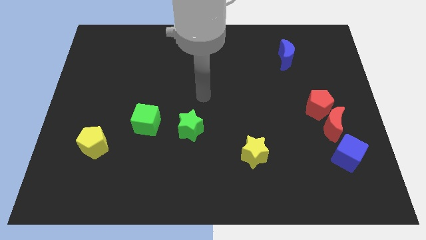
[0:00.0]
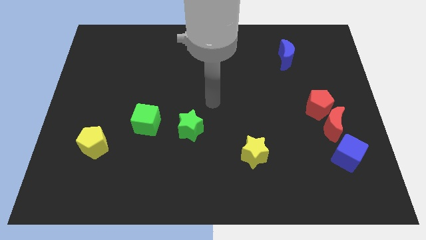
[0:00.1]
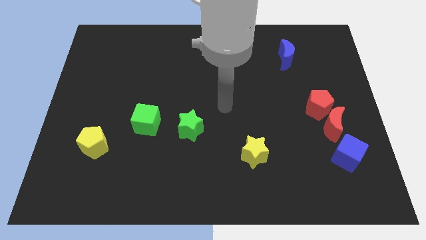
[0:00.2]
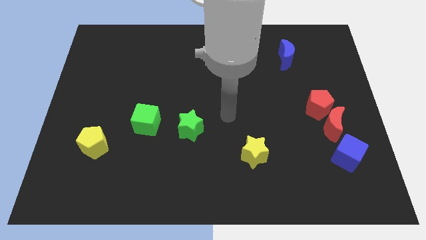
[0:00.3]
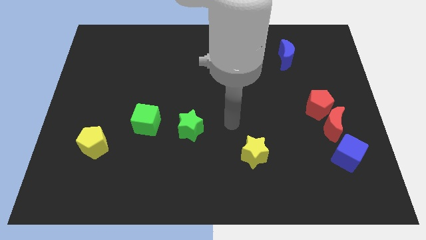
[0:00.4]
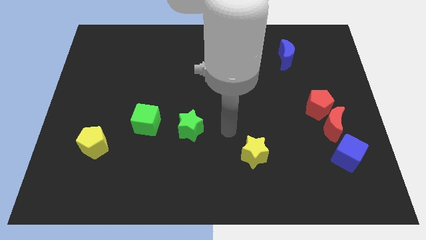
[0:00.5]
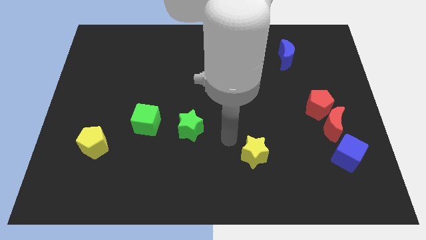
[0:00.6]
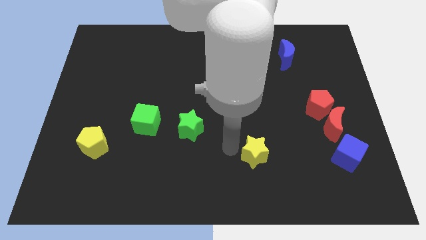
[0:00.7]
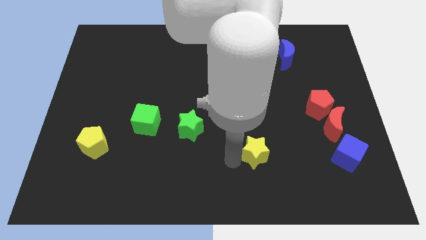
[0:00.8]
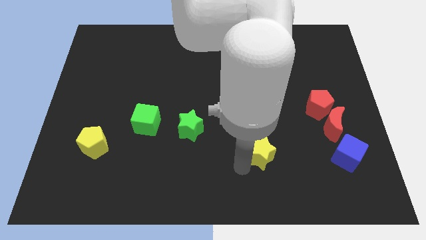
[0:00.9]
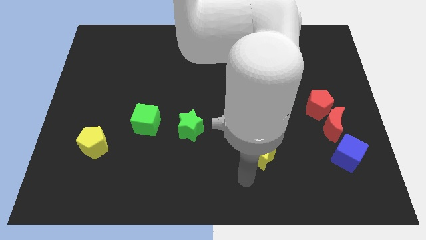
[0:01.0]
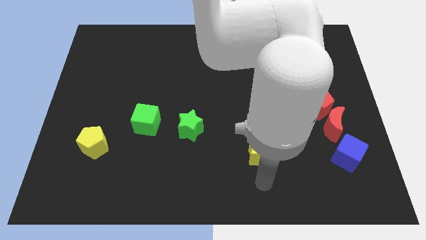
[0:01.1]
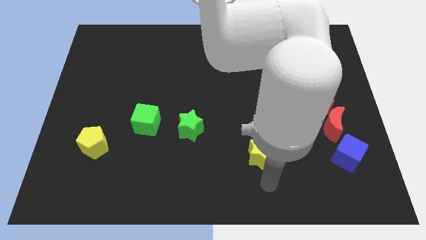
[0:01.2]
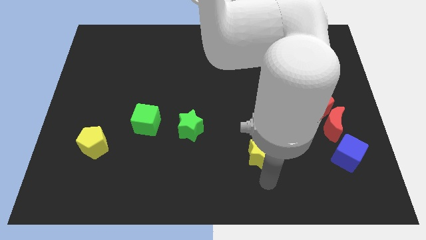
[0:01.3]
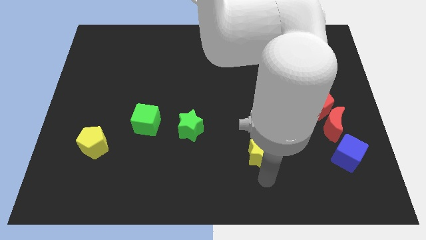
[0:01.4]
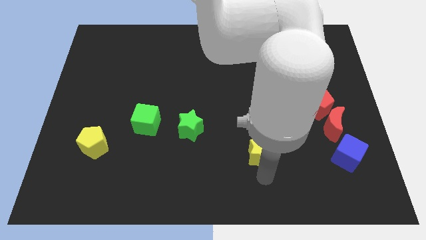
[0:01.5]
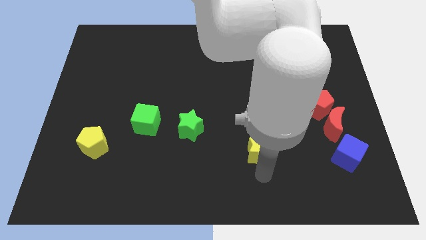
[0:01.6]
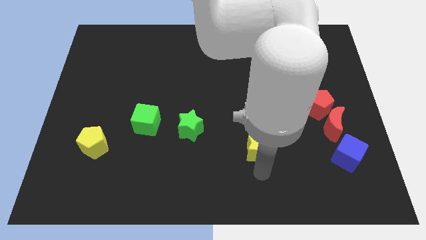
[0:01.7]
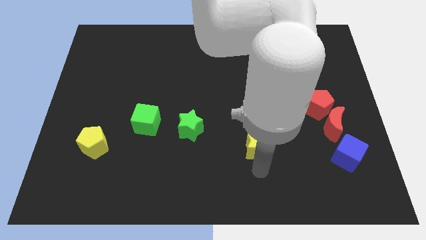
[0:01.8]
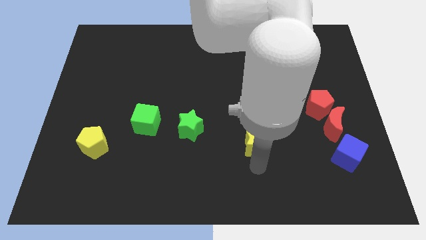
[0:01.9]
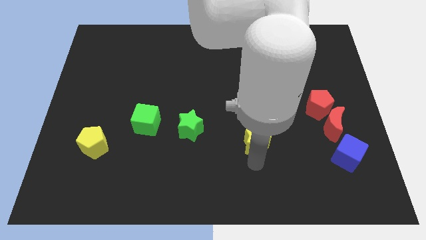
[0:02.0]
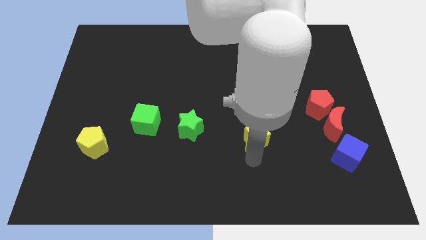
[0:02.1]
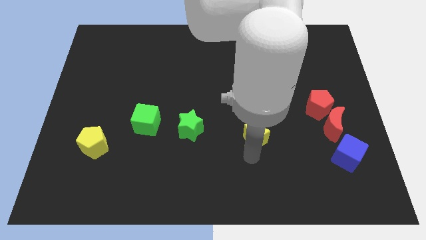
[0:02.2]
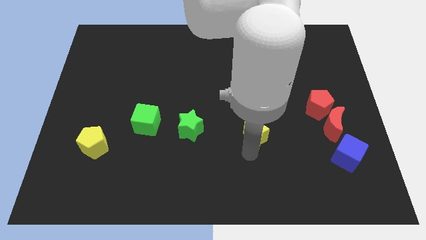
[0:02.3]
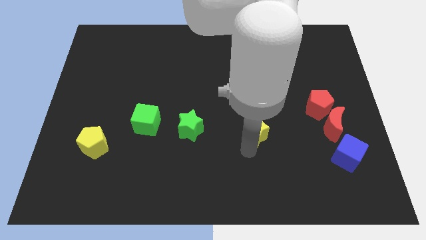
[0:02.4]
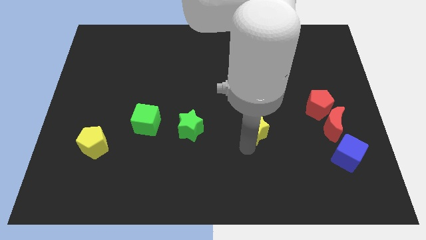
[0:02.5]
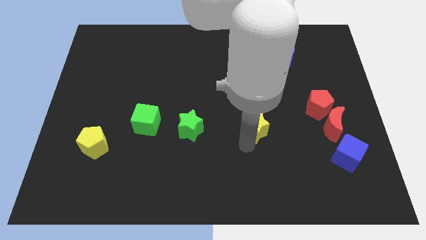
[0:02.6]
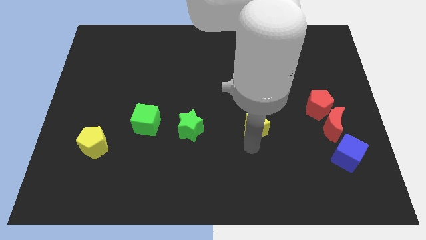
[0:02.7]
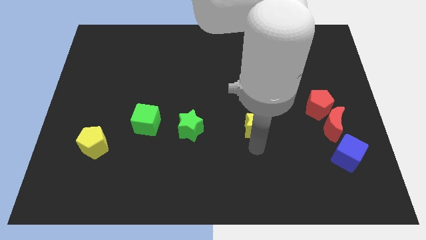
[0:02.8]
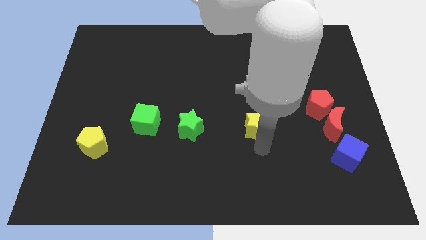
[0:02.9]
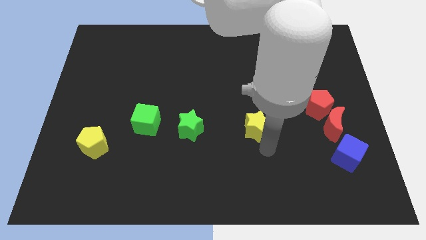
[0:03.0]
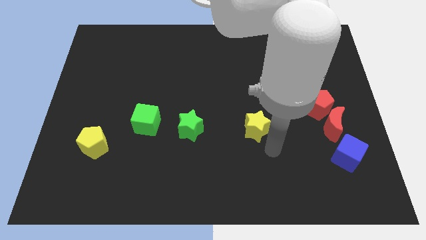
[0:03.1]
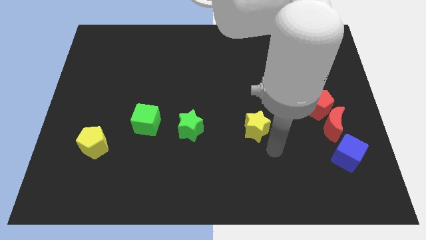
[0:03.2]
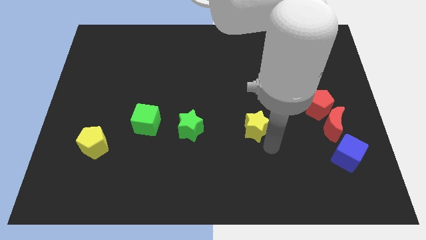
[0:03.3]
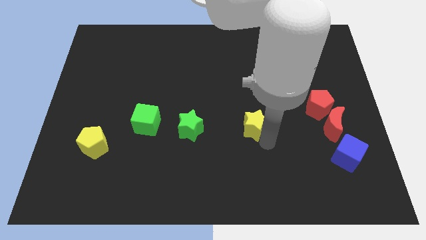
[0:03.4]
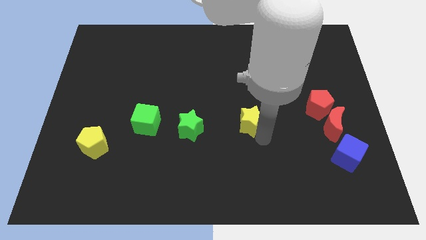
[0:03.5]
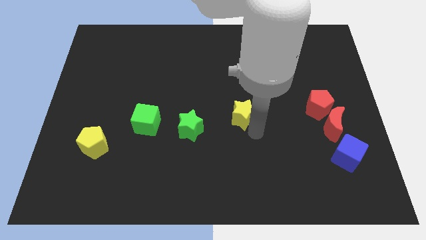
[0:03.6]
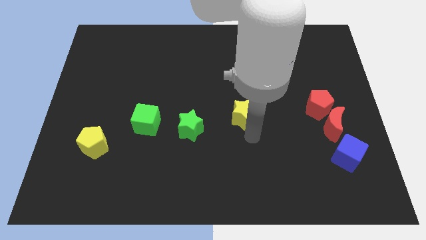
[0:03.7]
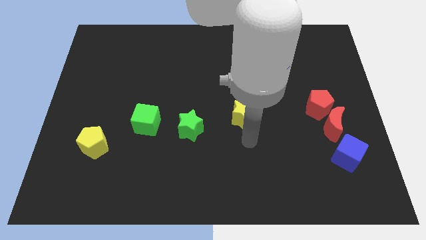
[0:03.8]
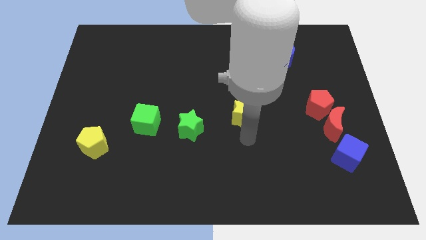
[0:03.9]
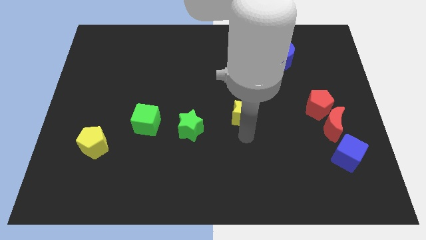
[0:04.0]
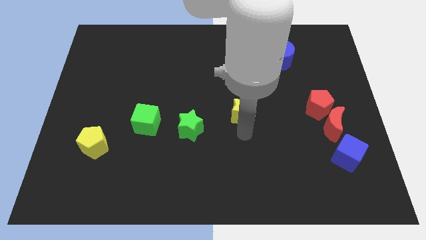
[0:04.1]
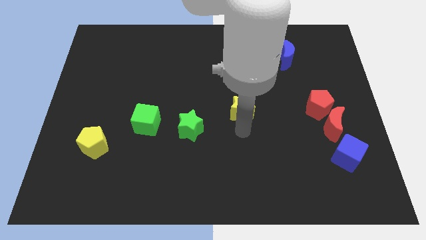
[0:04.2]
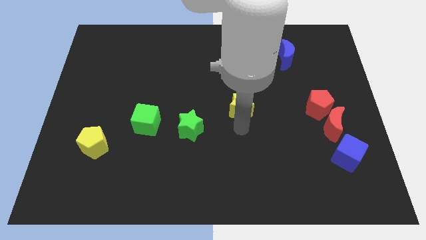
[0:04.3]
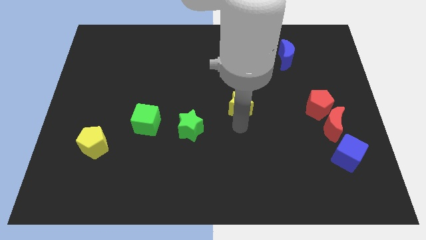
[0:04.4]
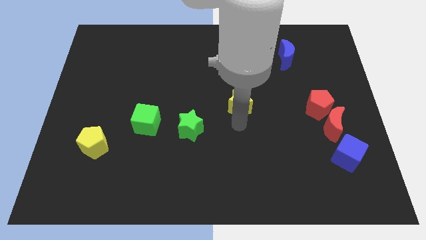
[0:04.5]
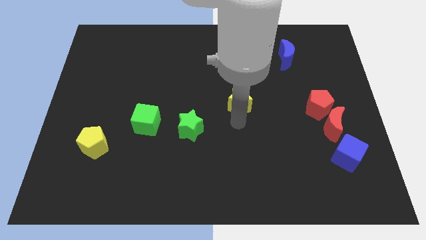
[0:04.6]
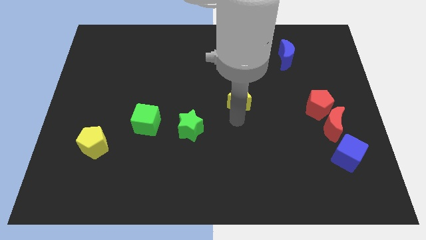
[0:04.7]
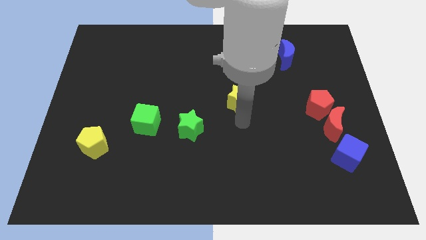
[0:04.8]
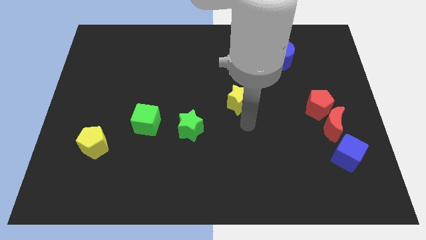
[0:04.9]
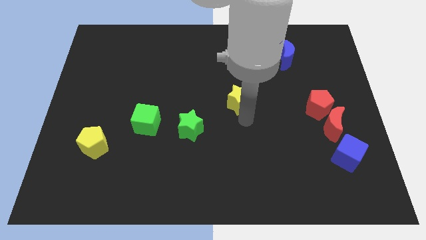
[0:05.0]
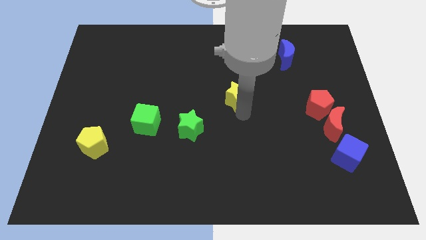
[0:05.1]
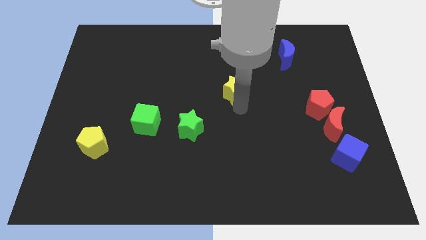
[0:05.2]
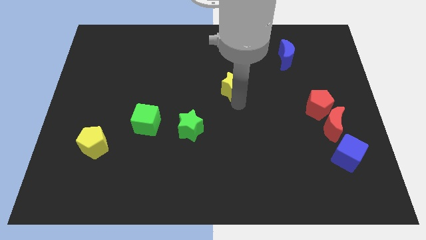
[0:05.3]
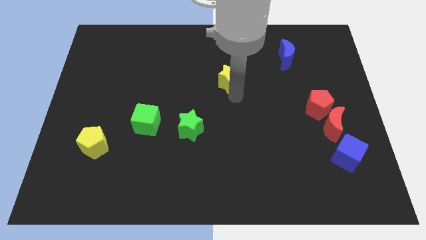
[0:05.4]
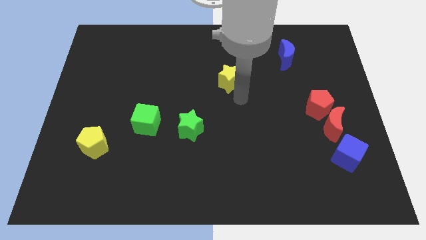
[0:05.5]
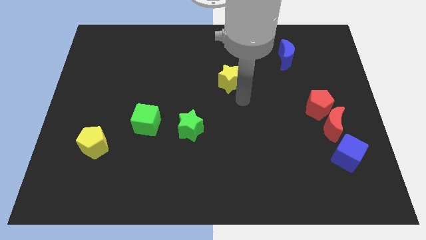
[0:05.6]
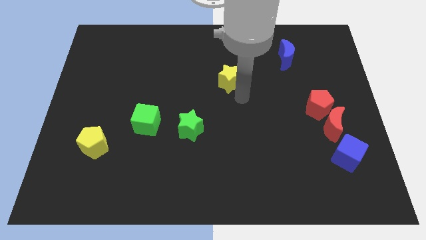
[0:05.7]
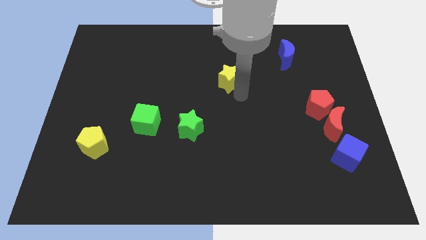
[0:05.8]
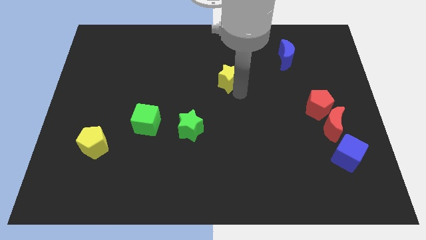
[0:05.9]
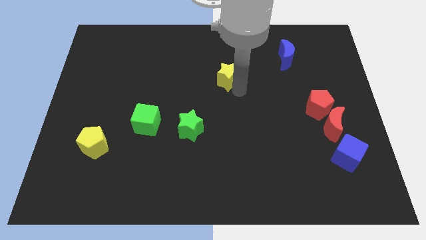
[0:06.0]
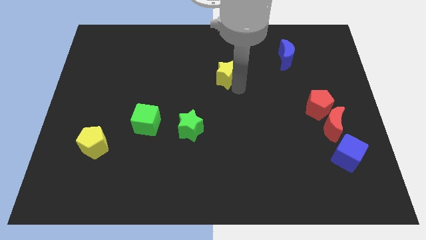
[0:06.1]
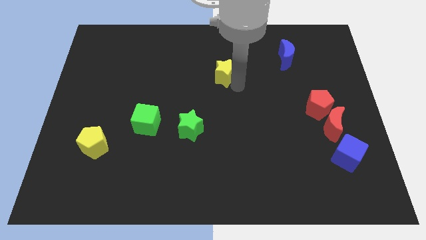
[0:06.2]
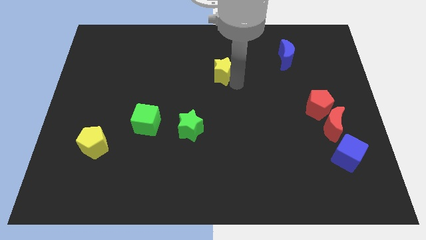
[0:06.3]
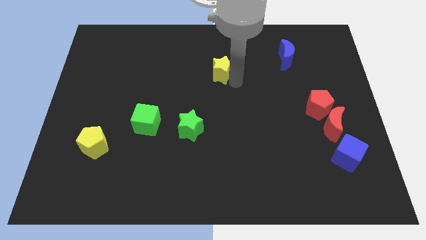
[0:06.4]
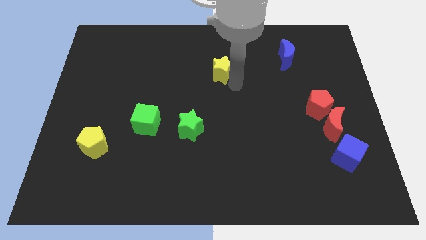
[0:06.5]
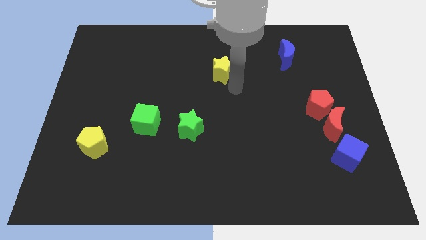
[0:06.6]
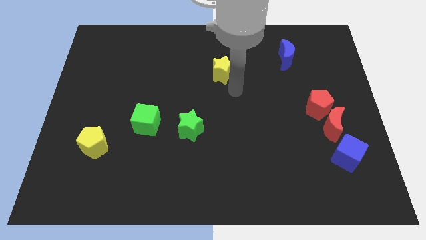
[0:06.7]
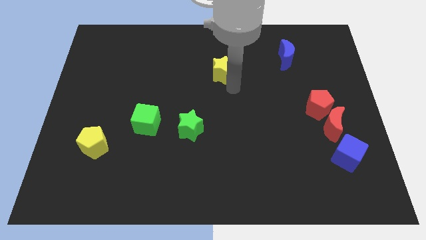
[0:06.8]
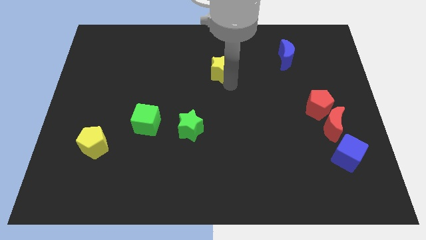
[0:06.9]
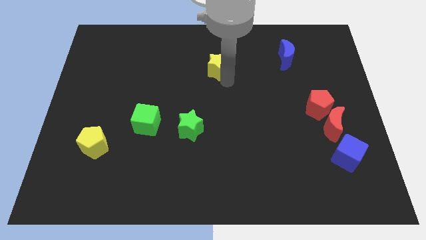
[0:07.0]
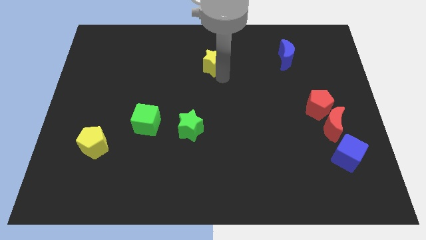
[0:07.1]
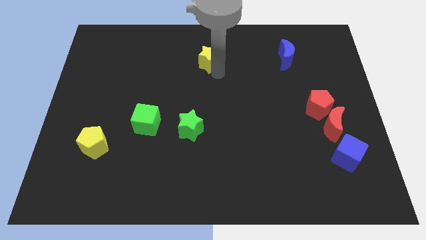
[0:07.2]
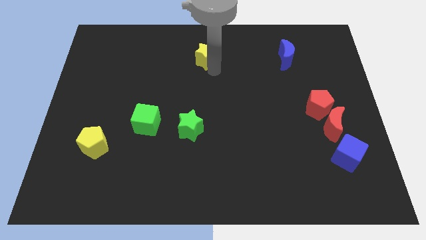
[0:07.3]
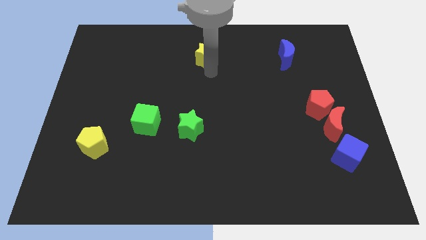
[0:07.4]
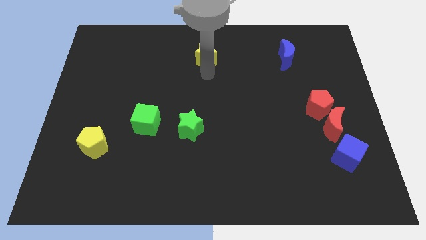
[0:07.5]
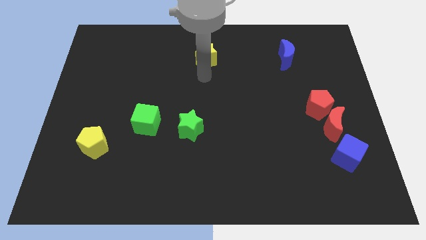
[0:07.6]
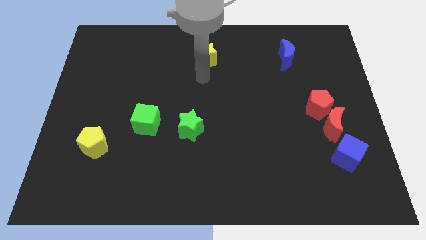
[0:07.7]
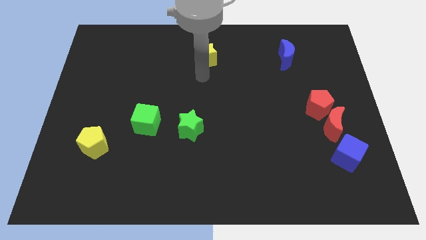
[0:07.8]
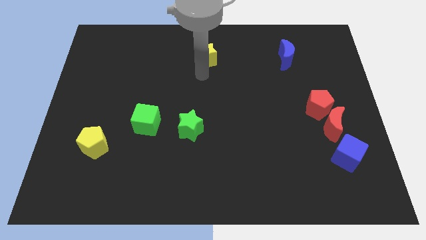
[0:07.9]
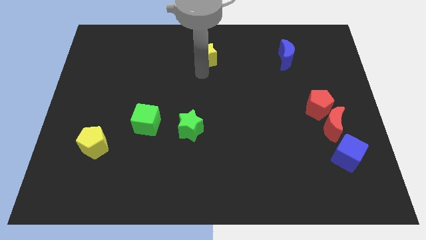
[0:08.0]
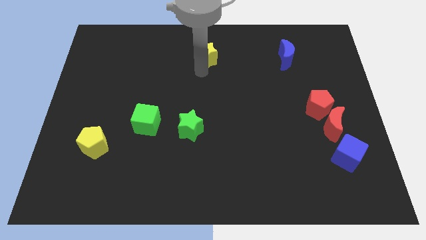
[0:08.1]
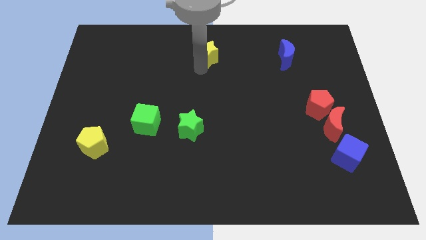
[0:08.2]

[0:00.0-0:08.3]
put the yellow star to the towards your base
